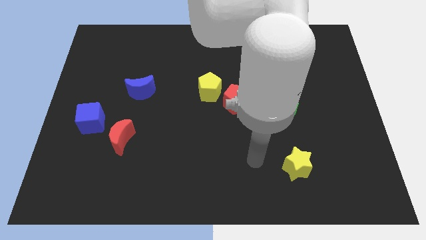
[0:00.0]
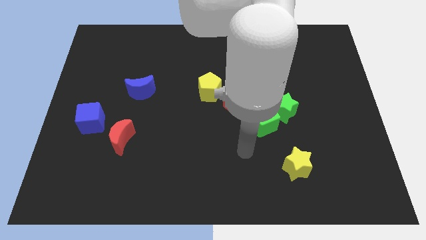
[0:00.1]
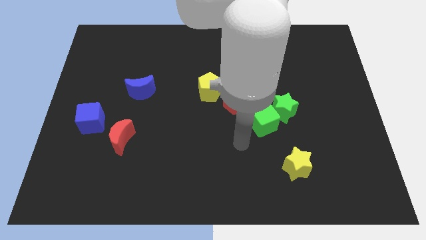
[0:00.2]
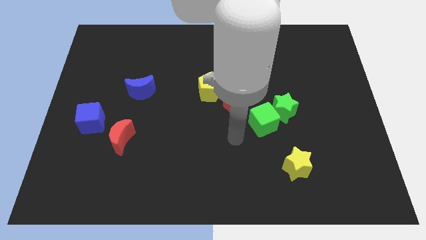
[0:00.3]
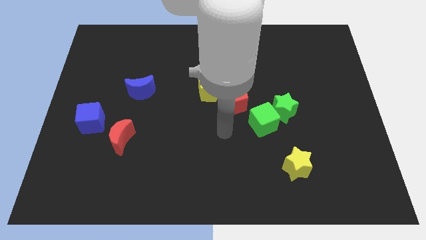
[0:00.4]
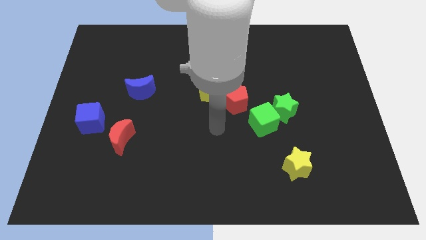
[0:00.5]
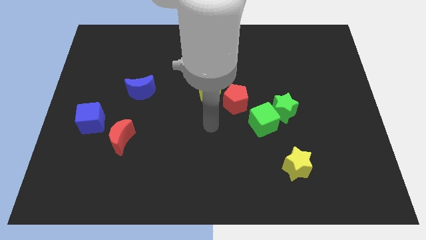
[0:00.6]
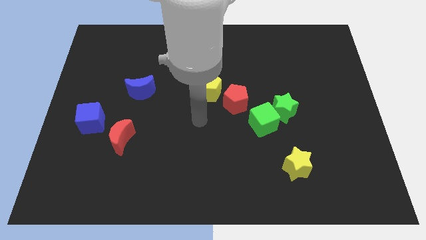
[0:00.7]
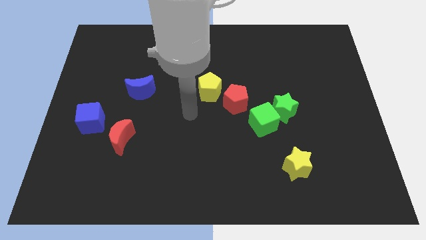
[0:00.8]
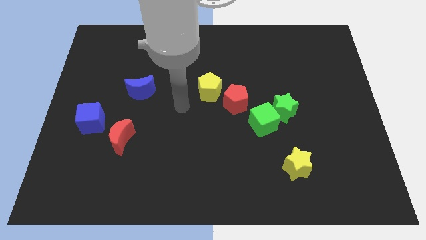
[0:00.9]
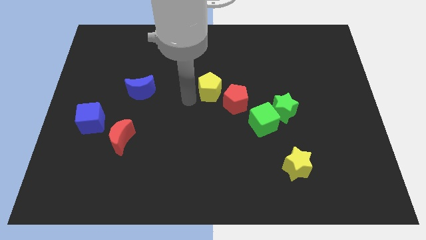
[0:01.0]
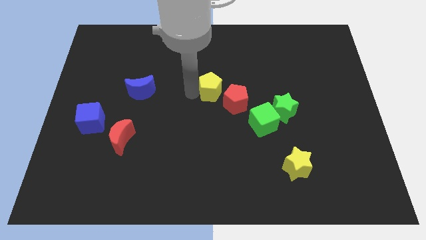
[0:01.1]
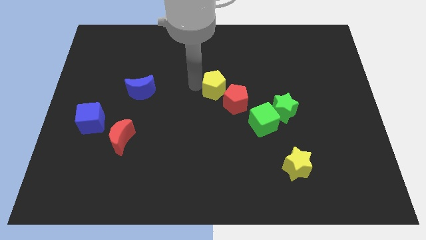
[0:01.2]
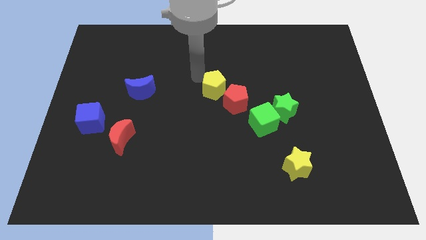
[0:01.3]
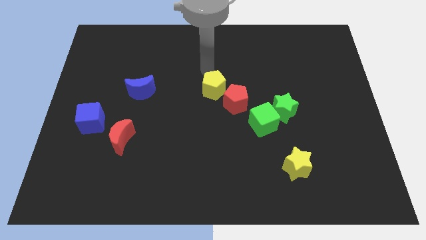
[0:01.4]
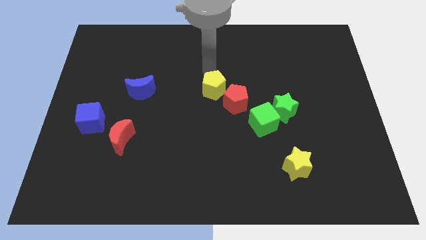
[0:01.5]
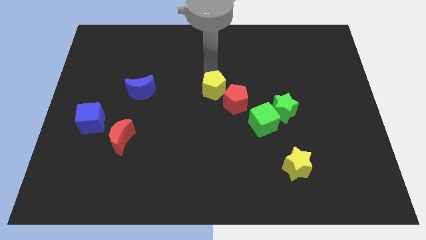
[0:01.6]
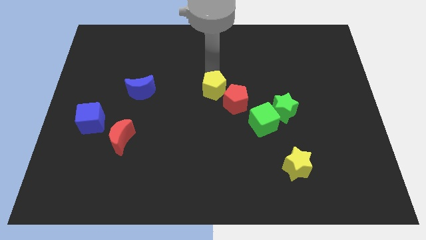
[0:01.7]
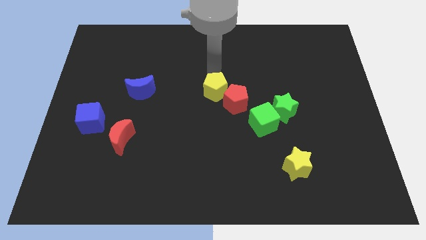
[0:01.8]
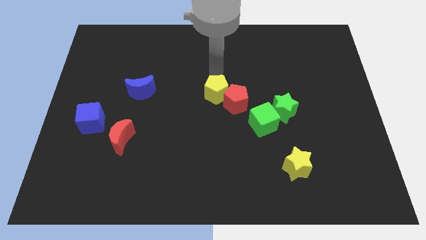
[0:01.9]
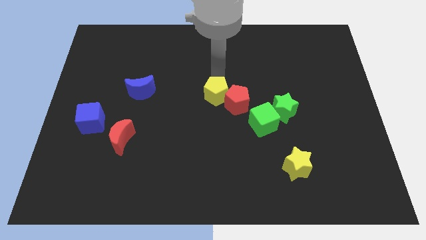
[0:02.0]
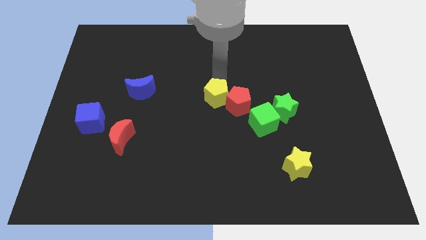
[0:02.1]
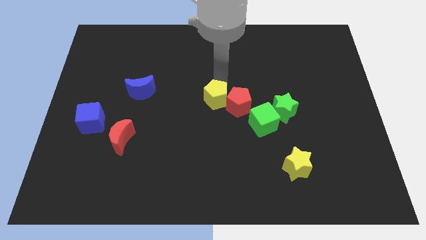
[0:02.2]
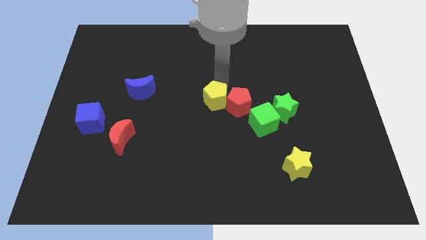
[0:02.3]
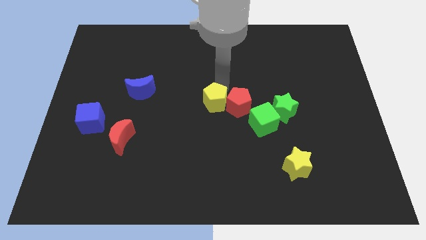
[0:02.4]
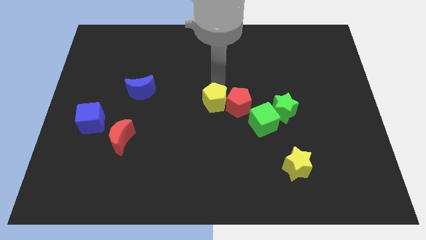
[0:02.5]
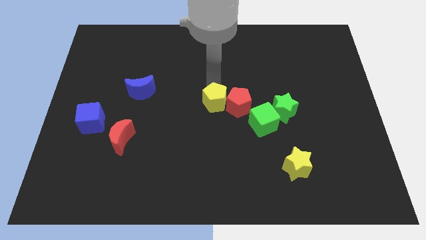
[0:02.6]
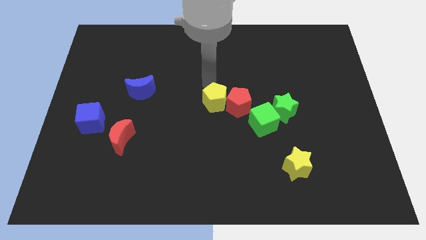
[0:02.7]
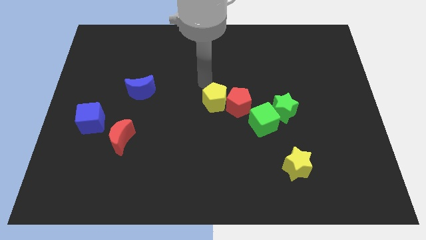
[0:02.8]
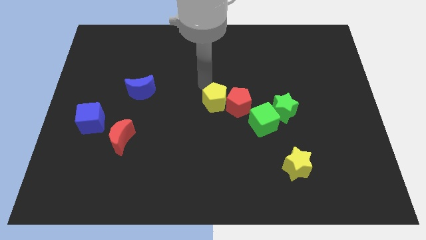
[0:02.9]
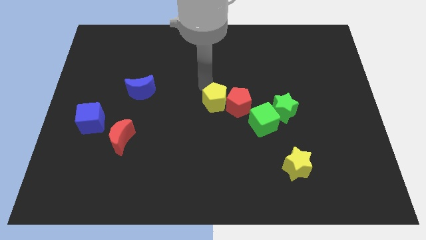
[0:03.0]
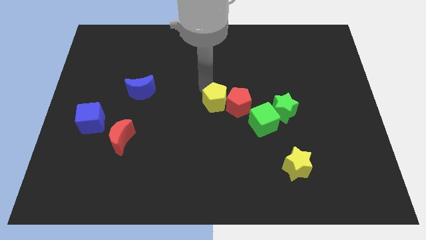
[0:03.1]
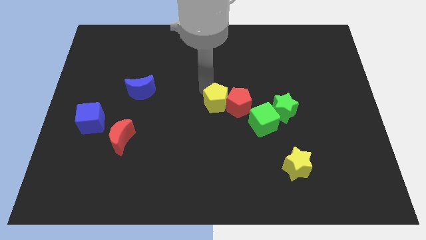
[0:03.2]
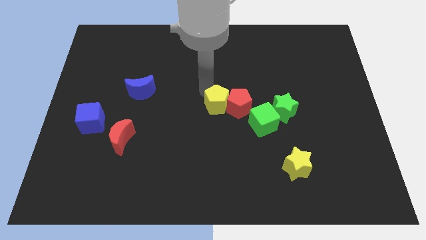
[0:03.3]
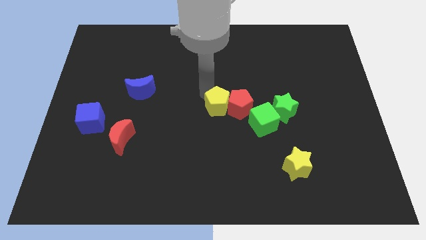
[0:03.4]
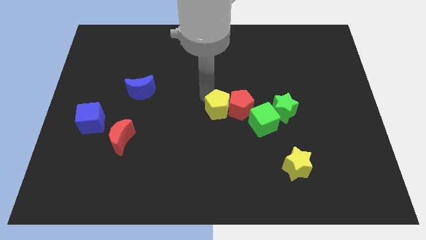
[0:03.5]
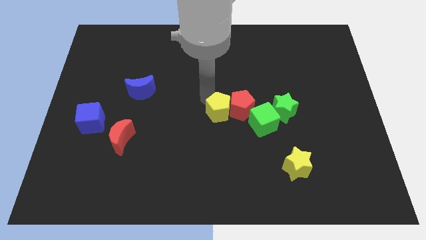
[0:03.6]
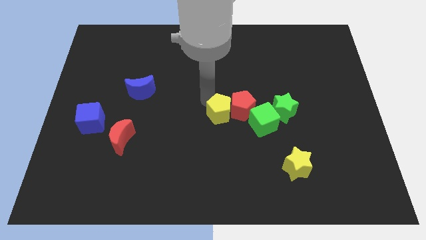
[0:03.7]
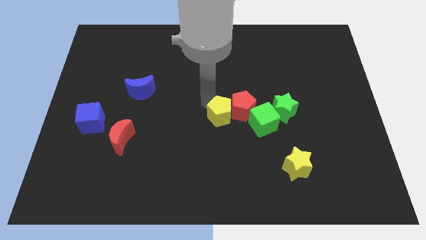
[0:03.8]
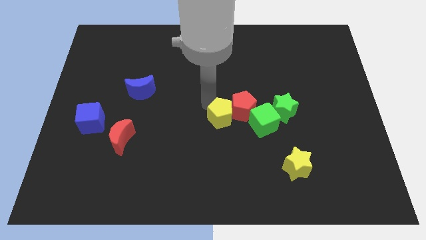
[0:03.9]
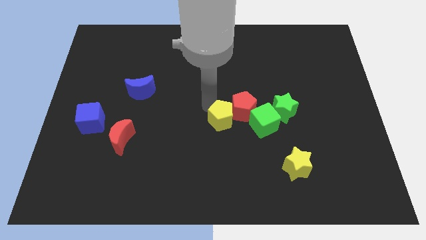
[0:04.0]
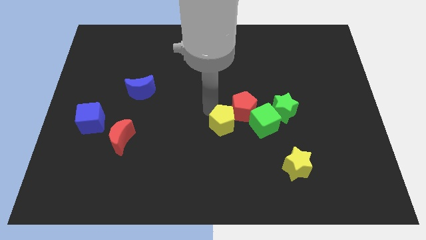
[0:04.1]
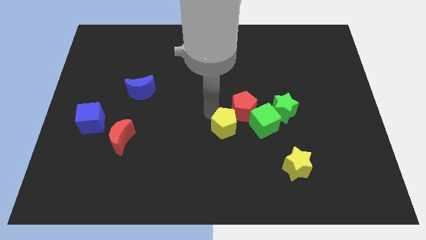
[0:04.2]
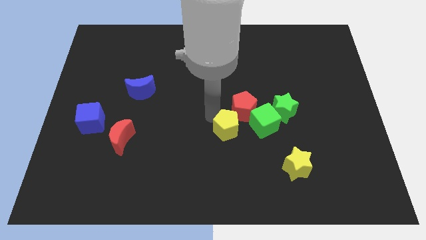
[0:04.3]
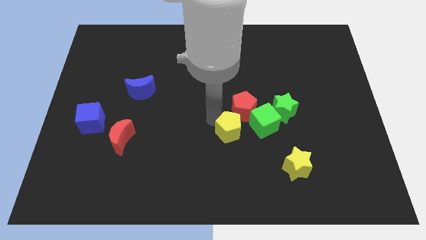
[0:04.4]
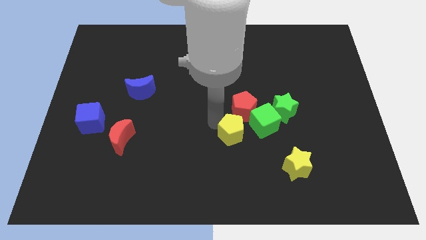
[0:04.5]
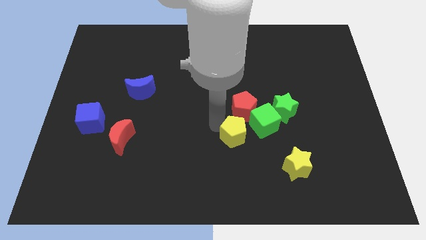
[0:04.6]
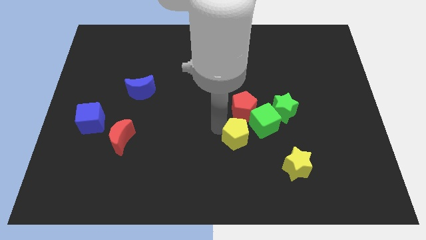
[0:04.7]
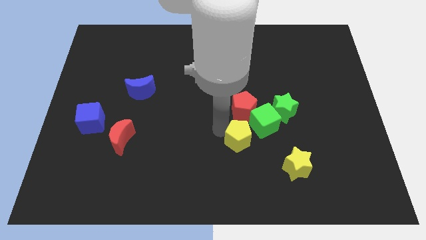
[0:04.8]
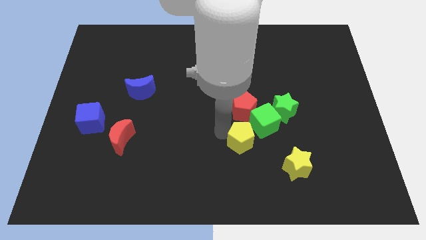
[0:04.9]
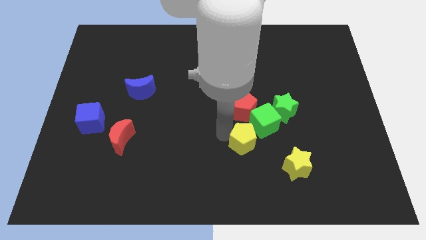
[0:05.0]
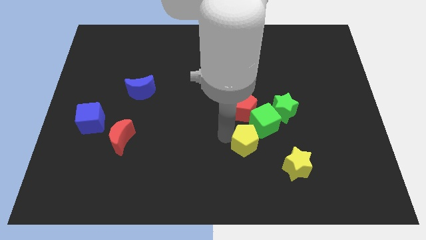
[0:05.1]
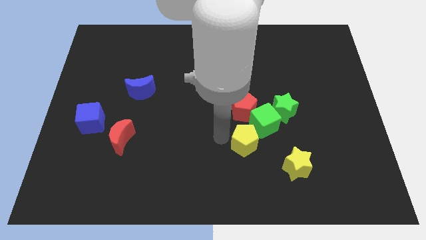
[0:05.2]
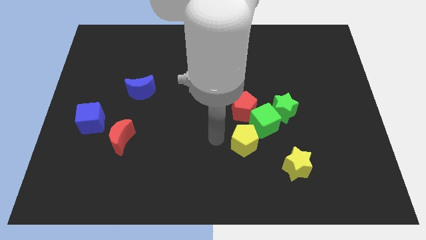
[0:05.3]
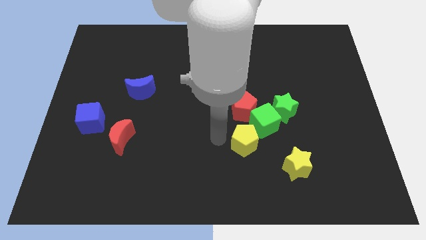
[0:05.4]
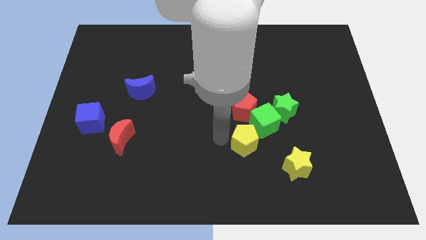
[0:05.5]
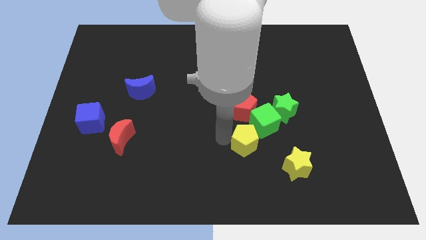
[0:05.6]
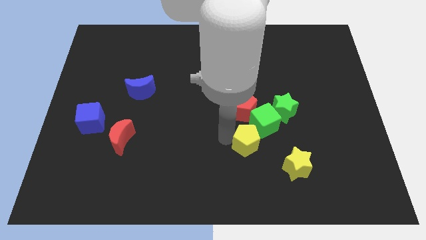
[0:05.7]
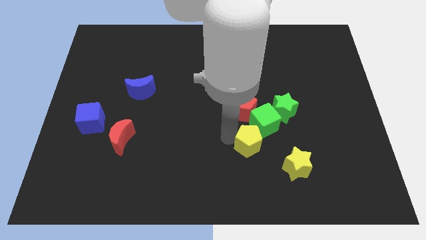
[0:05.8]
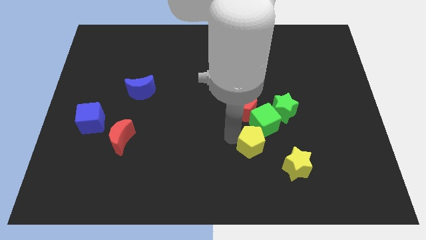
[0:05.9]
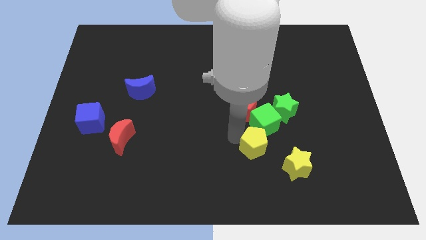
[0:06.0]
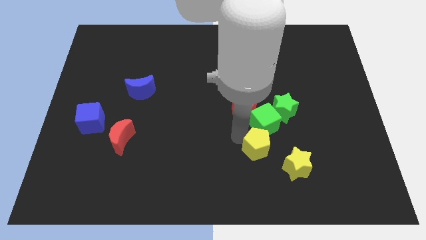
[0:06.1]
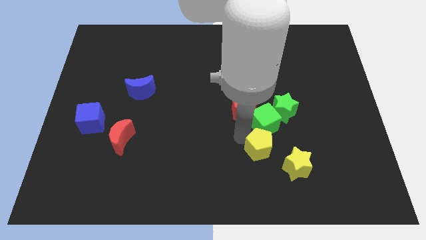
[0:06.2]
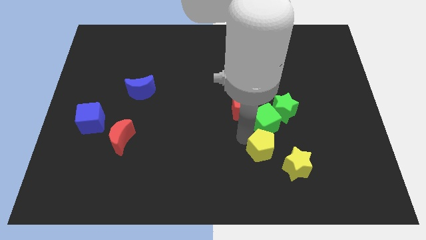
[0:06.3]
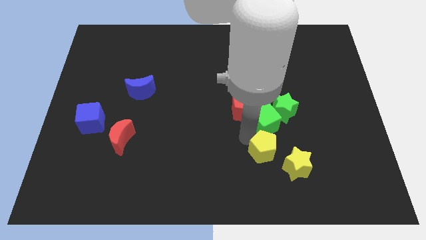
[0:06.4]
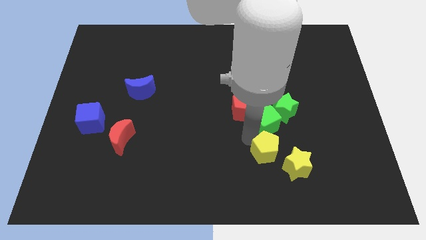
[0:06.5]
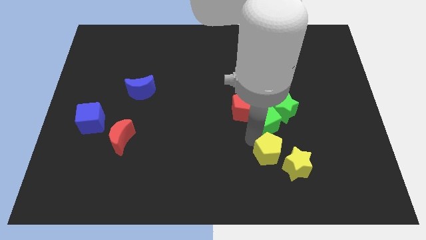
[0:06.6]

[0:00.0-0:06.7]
put the yellow pentagon towards the yellow star

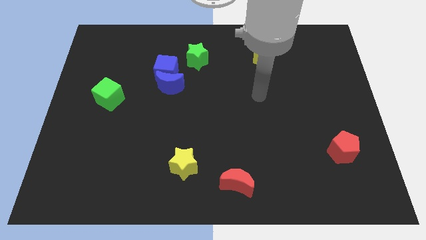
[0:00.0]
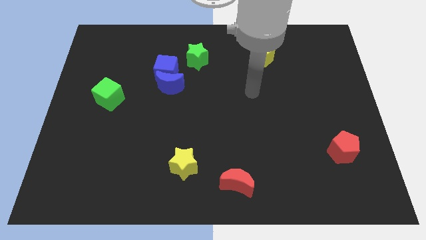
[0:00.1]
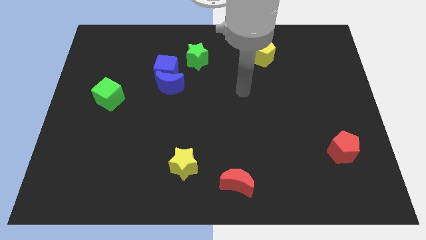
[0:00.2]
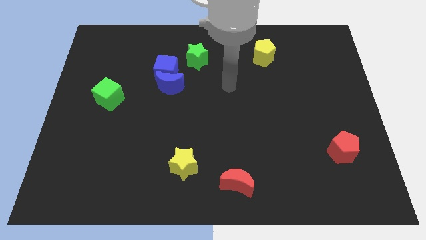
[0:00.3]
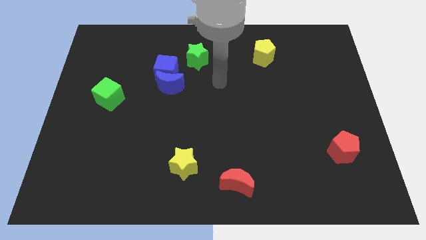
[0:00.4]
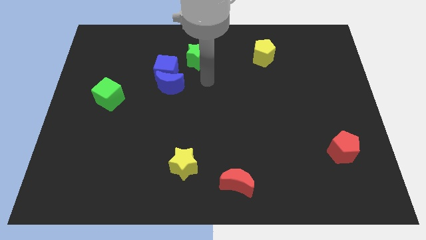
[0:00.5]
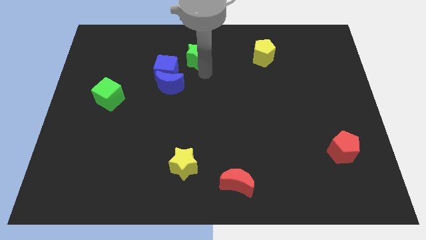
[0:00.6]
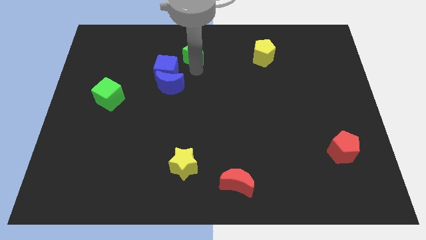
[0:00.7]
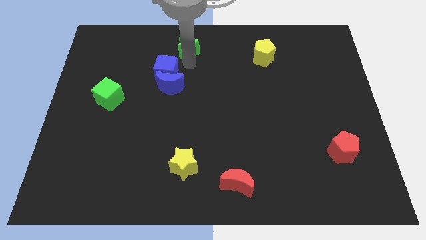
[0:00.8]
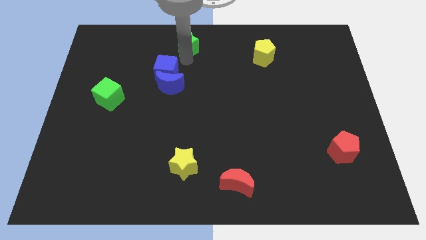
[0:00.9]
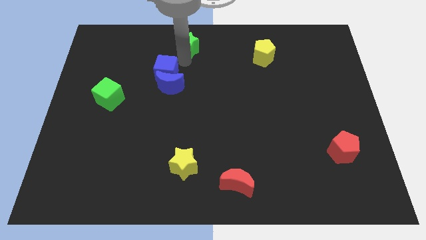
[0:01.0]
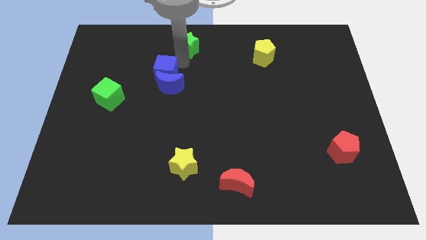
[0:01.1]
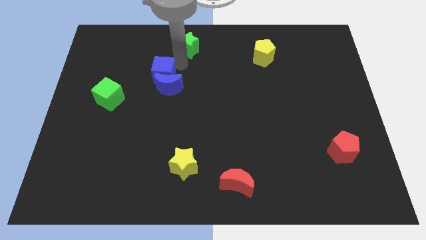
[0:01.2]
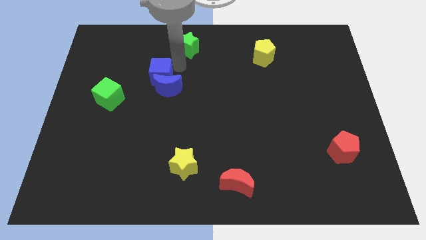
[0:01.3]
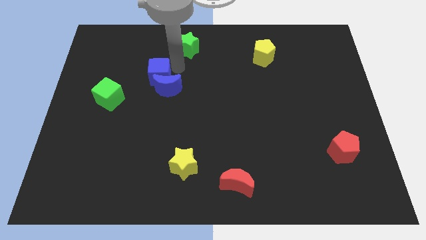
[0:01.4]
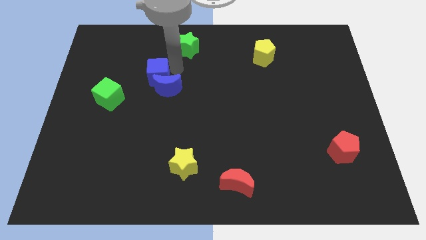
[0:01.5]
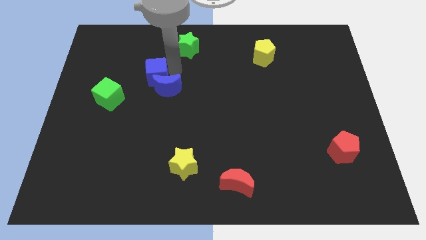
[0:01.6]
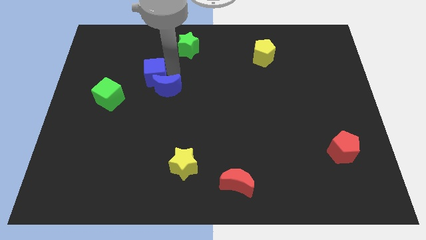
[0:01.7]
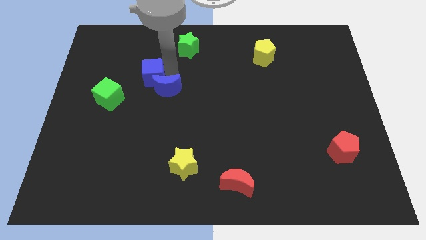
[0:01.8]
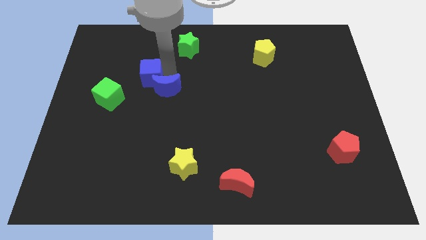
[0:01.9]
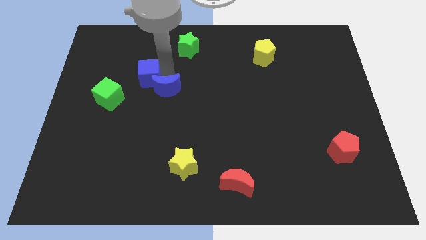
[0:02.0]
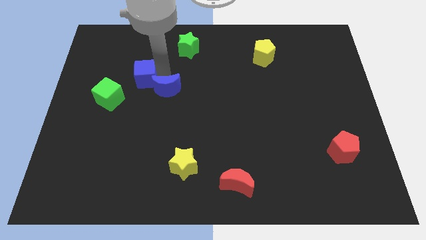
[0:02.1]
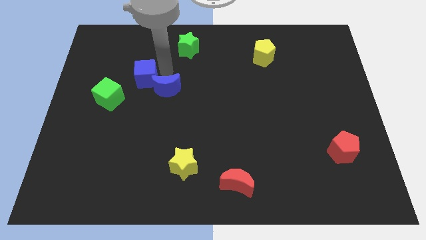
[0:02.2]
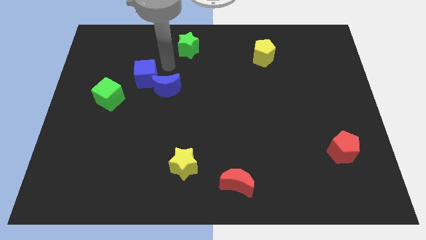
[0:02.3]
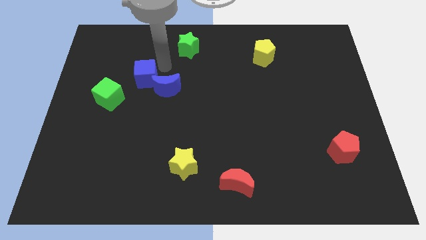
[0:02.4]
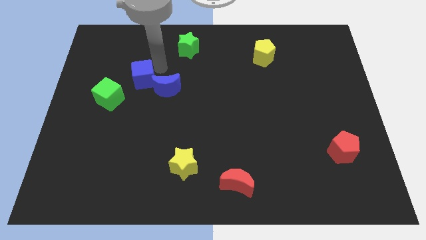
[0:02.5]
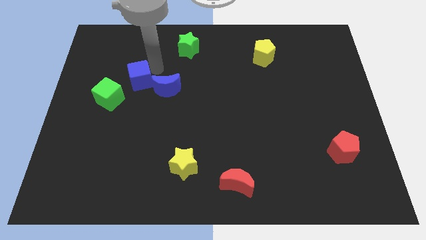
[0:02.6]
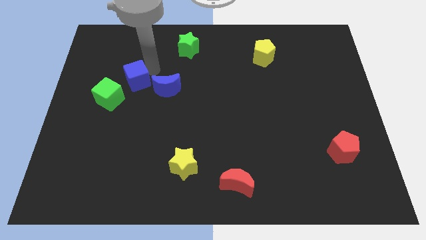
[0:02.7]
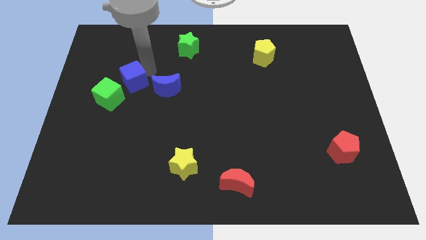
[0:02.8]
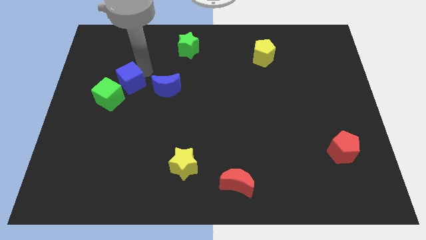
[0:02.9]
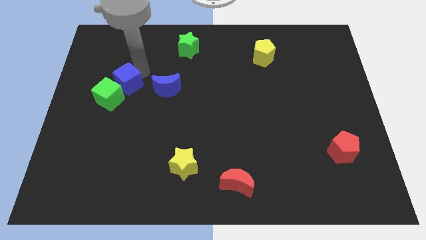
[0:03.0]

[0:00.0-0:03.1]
push the blue cube next to the green cube
